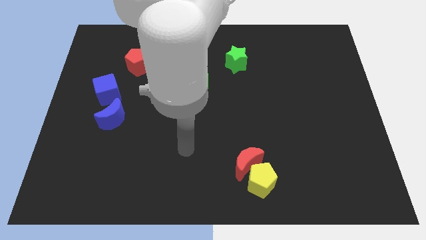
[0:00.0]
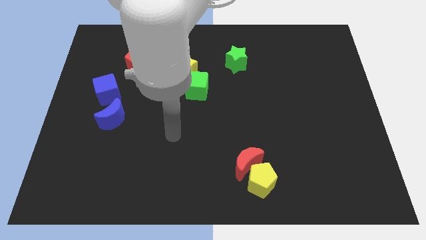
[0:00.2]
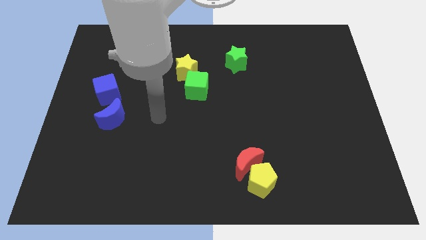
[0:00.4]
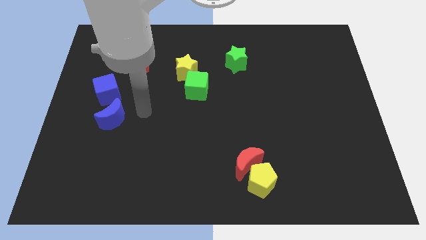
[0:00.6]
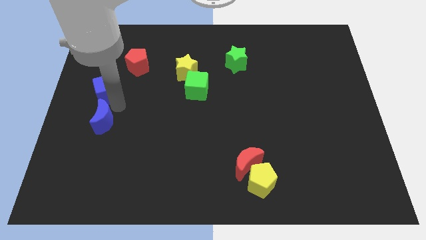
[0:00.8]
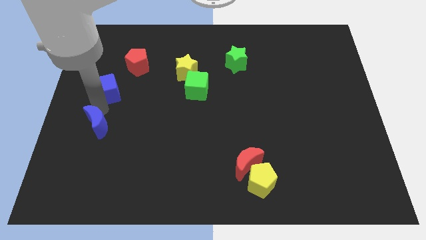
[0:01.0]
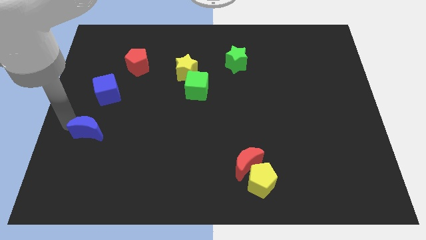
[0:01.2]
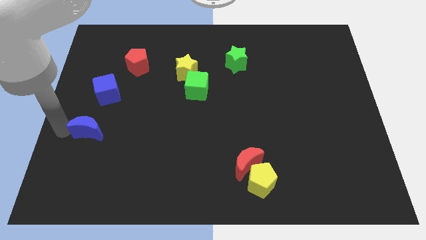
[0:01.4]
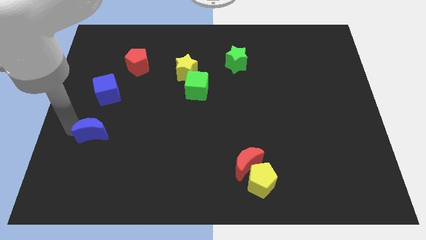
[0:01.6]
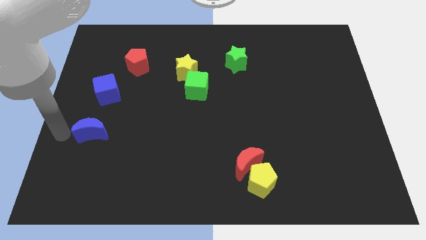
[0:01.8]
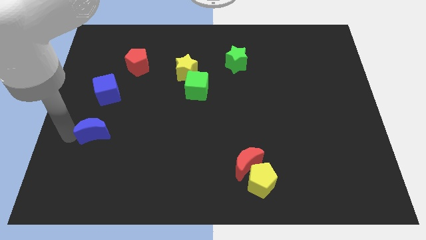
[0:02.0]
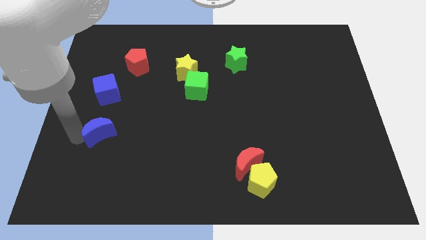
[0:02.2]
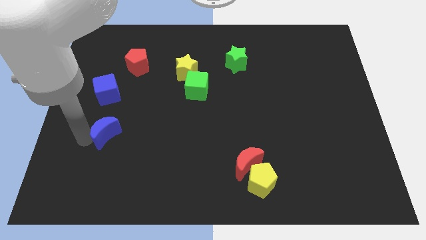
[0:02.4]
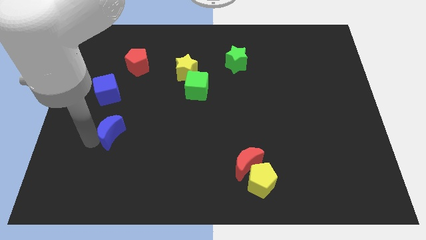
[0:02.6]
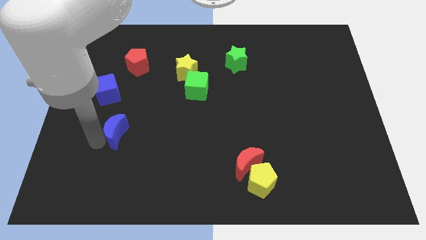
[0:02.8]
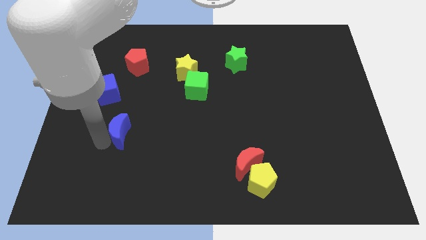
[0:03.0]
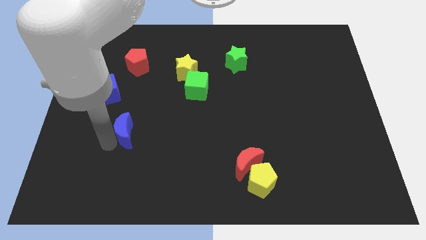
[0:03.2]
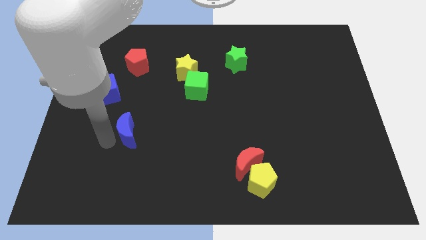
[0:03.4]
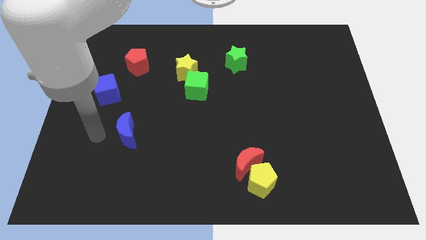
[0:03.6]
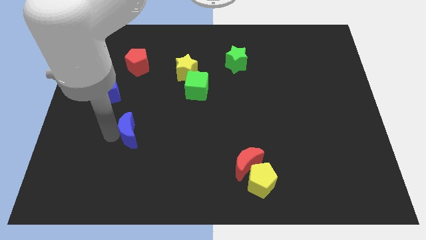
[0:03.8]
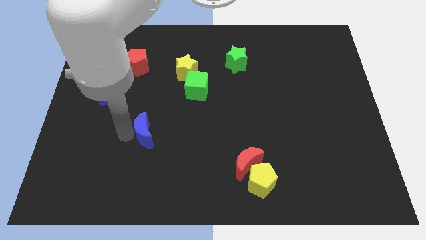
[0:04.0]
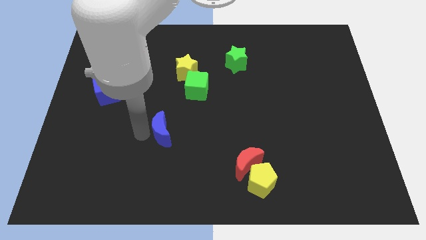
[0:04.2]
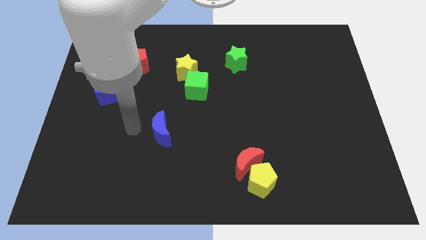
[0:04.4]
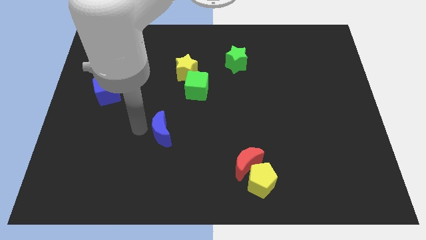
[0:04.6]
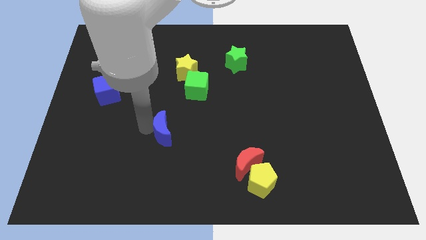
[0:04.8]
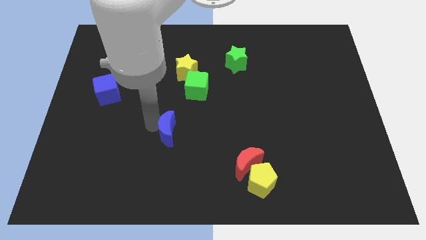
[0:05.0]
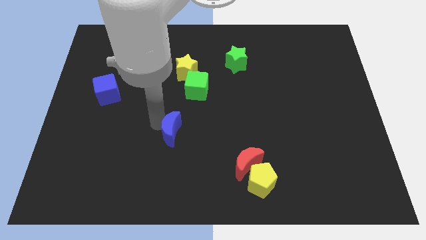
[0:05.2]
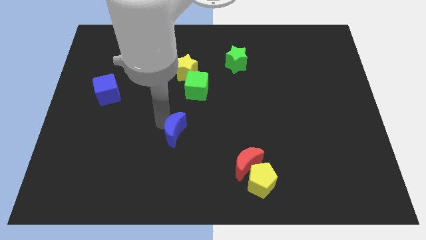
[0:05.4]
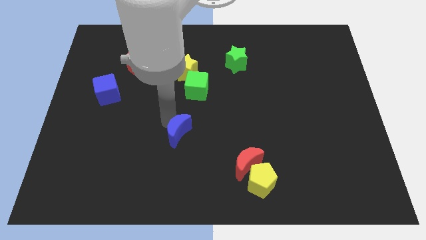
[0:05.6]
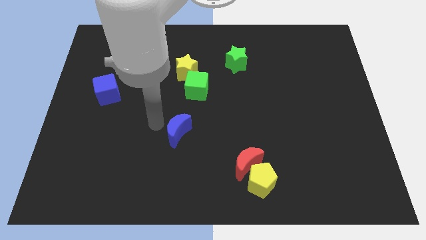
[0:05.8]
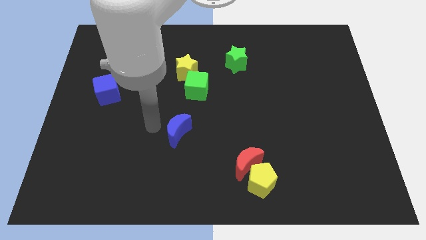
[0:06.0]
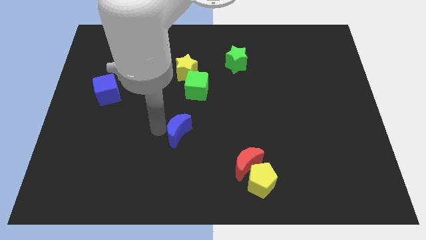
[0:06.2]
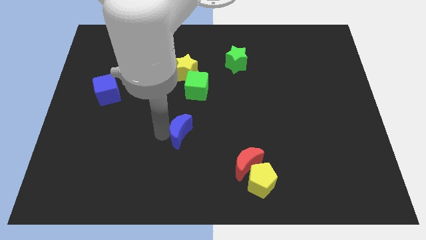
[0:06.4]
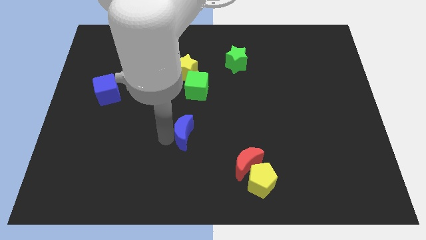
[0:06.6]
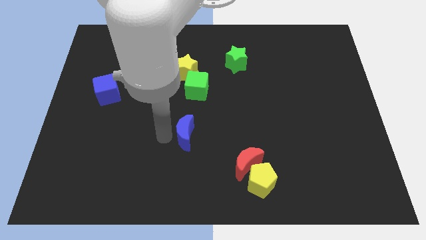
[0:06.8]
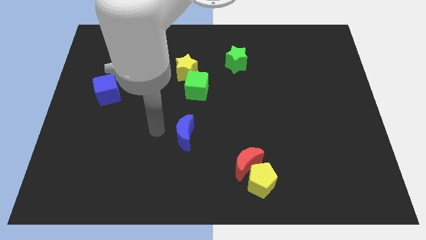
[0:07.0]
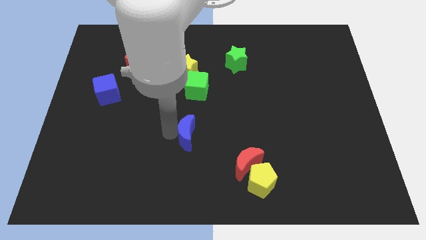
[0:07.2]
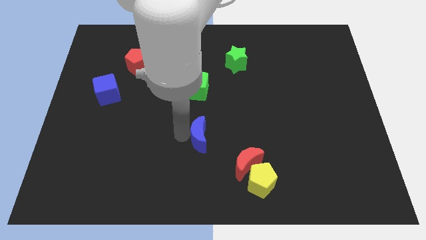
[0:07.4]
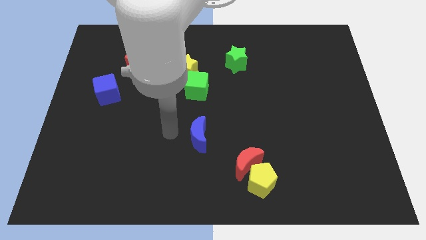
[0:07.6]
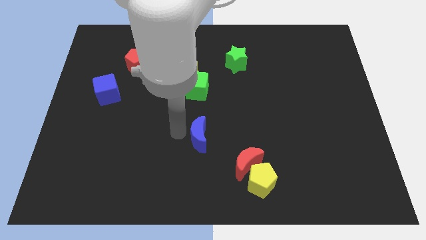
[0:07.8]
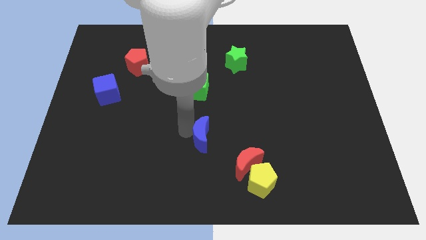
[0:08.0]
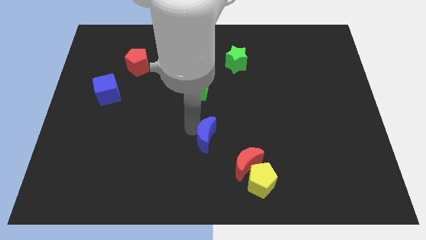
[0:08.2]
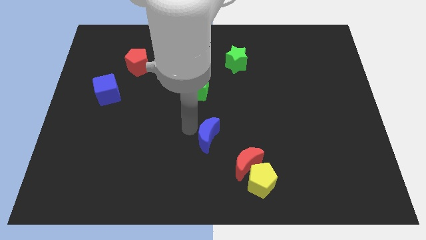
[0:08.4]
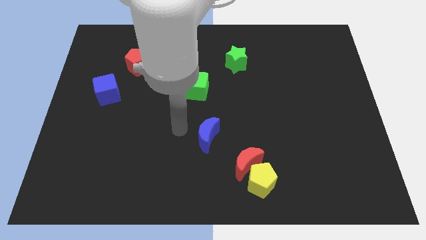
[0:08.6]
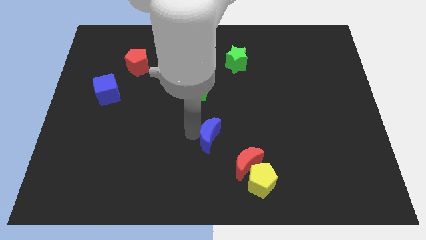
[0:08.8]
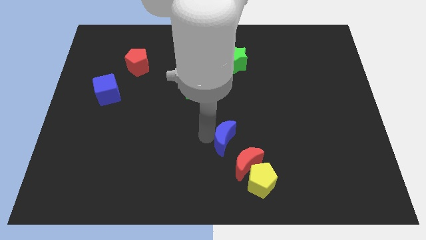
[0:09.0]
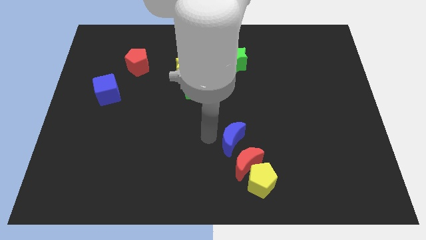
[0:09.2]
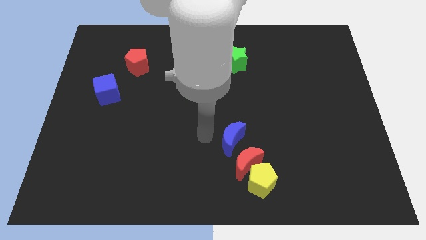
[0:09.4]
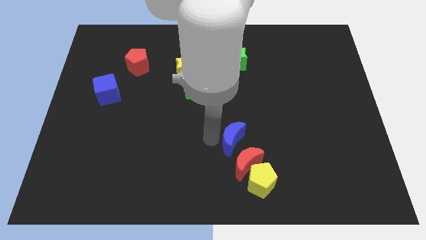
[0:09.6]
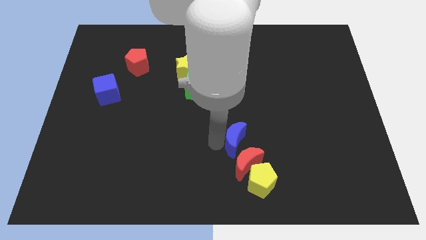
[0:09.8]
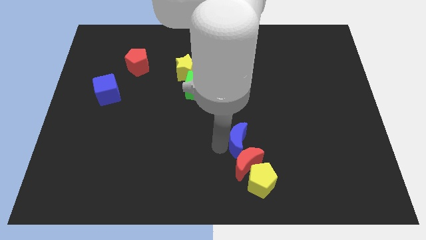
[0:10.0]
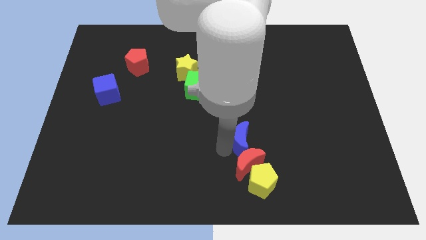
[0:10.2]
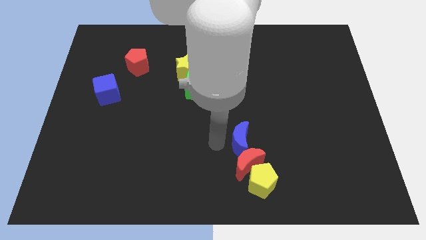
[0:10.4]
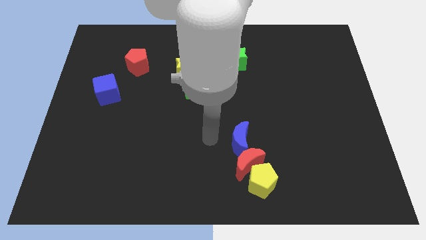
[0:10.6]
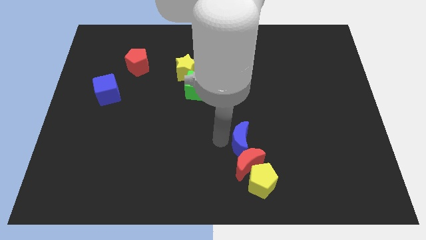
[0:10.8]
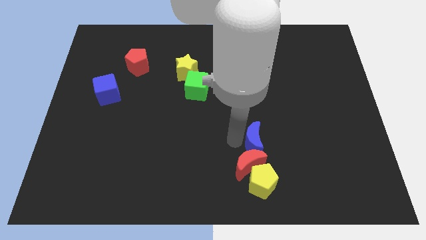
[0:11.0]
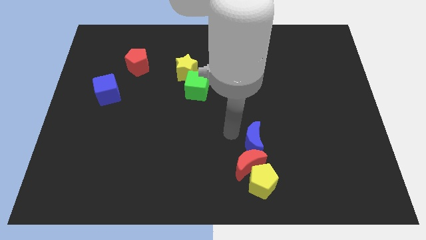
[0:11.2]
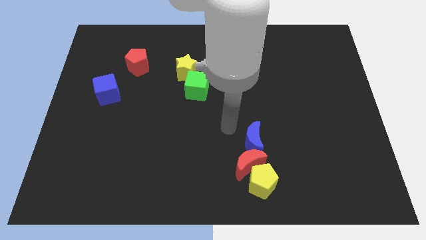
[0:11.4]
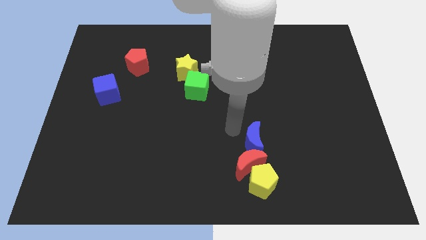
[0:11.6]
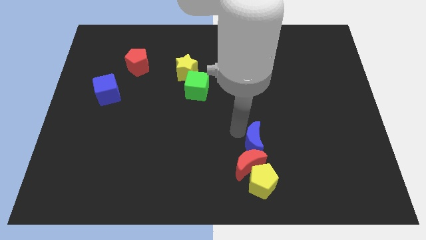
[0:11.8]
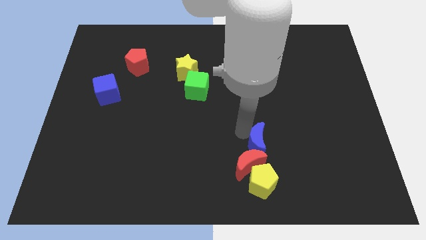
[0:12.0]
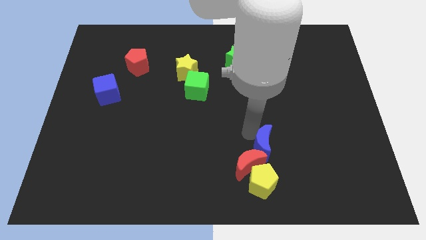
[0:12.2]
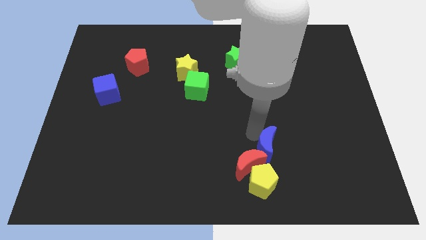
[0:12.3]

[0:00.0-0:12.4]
push the blue moon just right of the red moon
